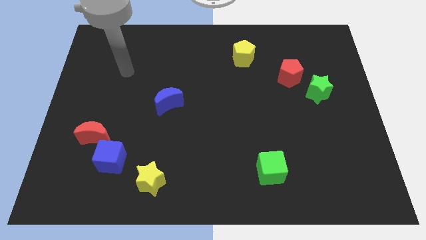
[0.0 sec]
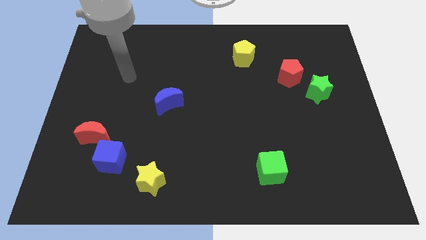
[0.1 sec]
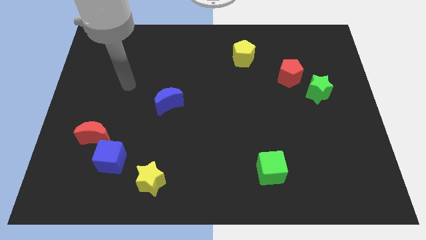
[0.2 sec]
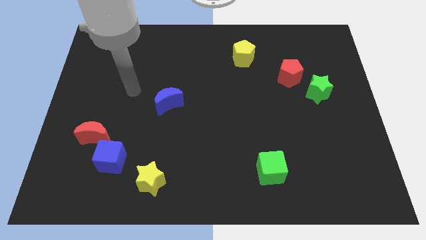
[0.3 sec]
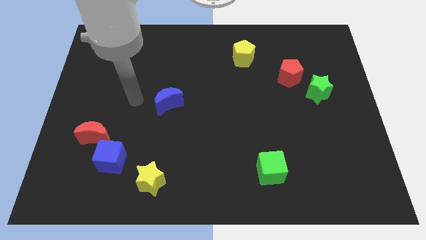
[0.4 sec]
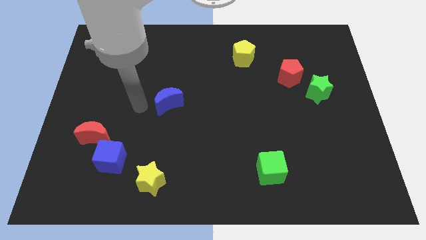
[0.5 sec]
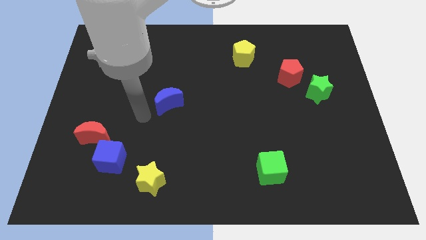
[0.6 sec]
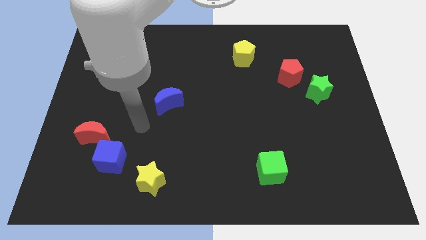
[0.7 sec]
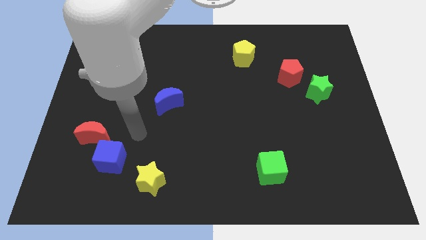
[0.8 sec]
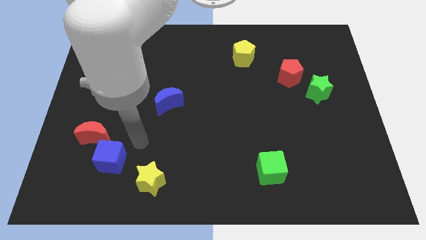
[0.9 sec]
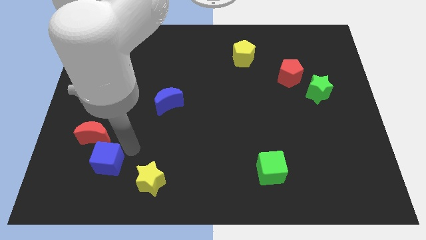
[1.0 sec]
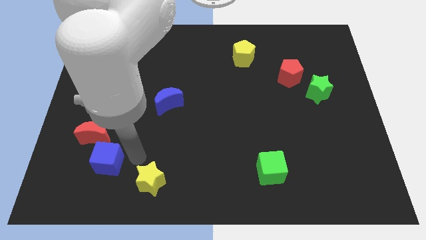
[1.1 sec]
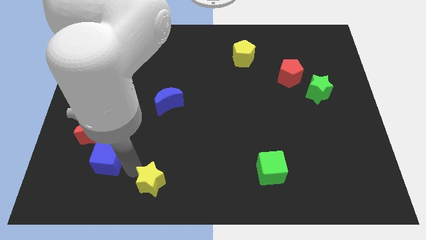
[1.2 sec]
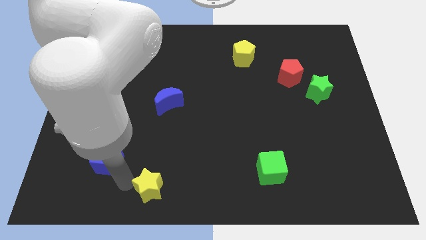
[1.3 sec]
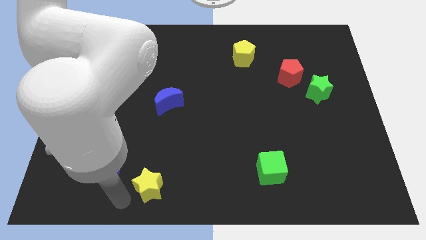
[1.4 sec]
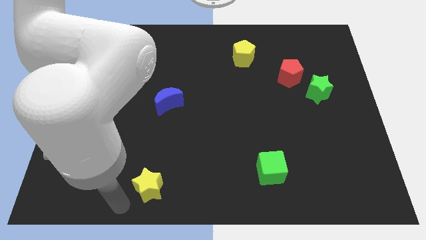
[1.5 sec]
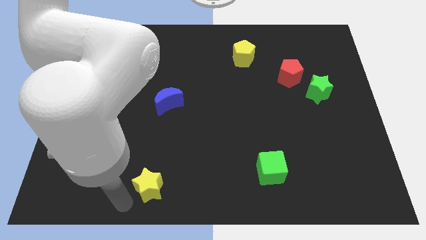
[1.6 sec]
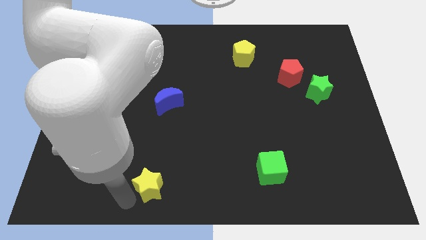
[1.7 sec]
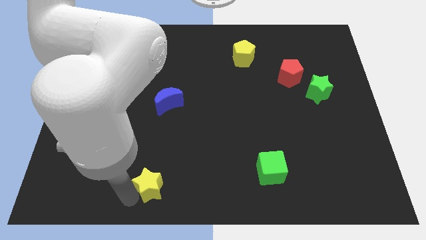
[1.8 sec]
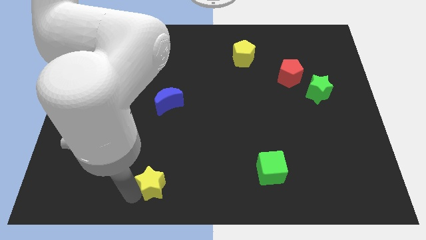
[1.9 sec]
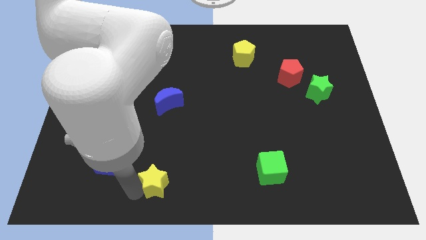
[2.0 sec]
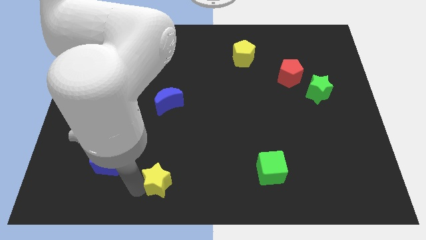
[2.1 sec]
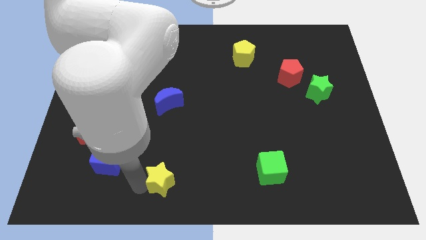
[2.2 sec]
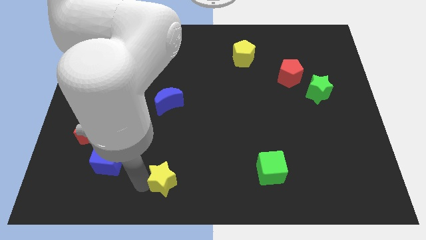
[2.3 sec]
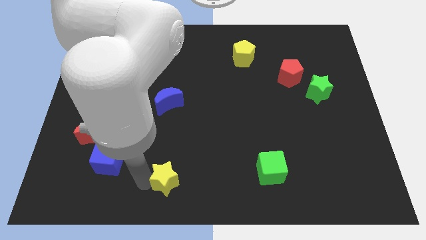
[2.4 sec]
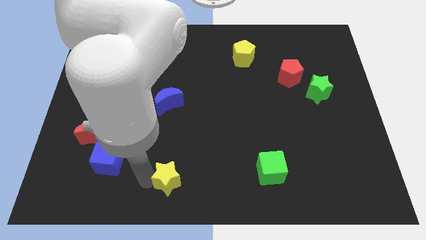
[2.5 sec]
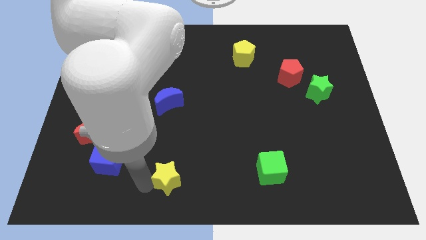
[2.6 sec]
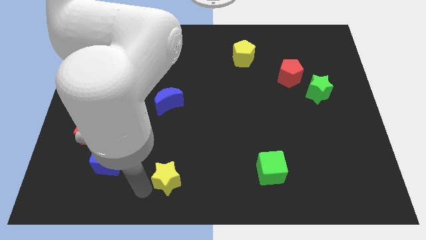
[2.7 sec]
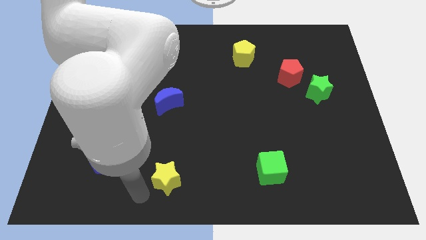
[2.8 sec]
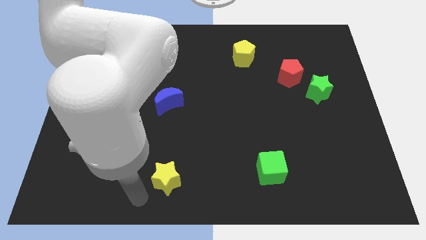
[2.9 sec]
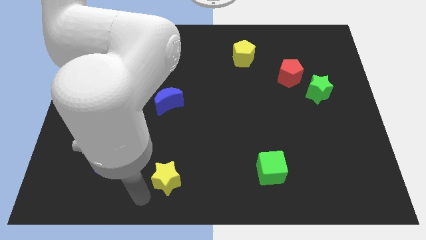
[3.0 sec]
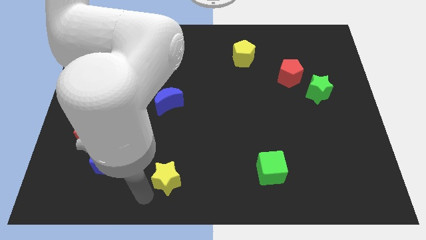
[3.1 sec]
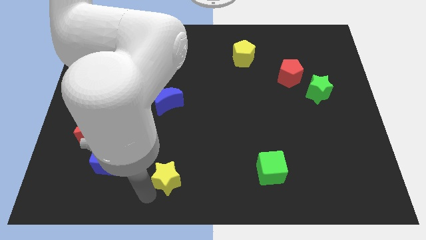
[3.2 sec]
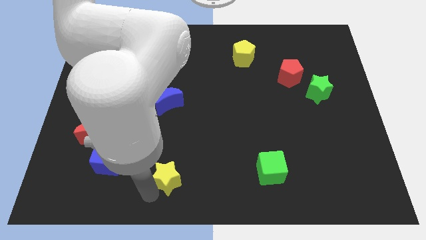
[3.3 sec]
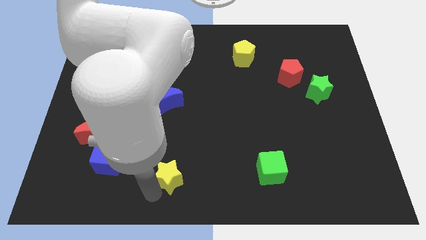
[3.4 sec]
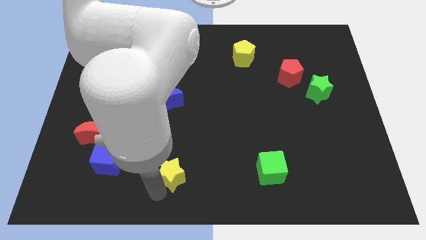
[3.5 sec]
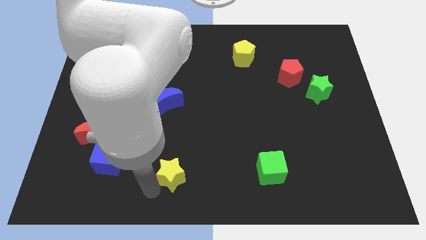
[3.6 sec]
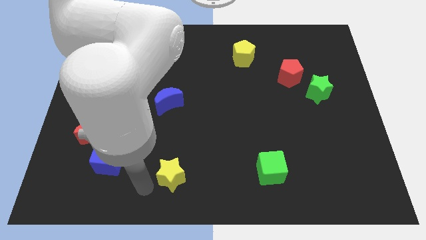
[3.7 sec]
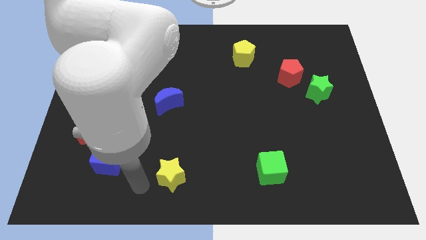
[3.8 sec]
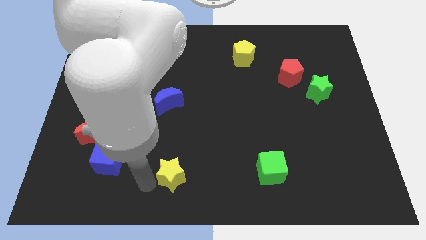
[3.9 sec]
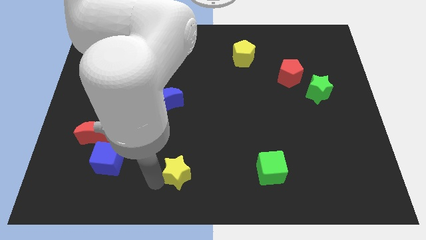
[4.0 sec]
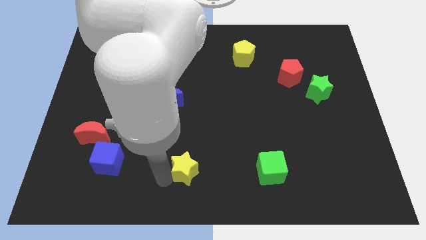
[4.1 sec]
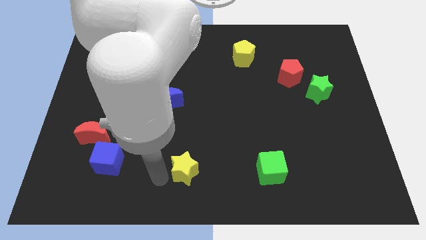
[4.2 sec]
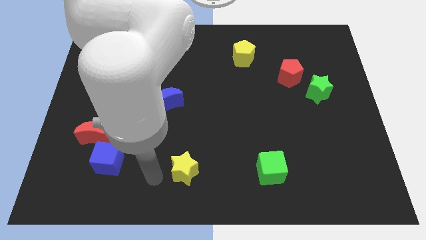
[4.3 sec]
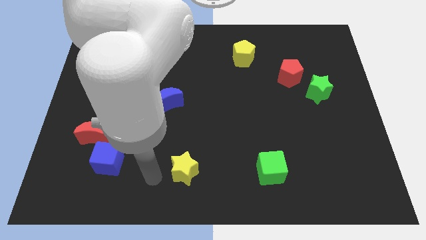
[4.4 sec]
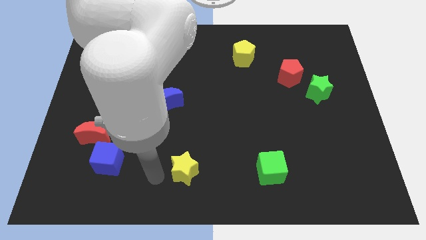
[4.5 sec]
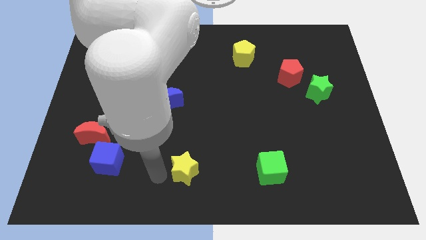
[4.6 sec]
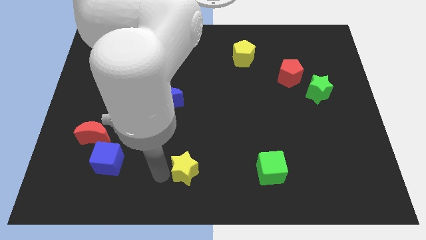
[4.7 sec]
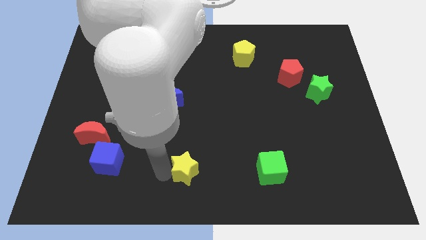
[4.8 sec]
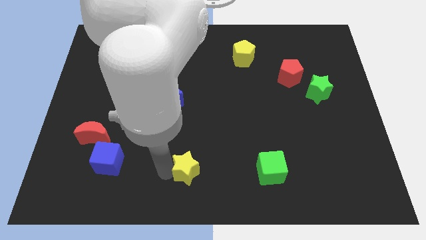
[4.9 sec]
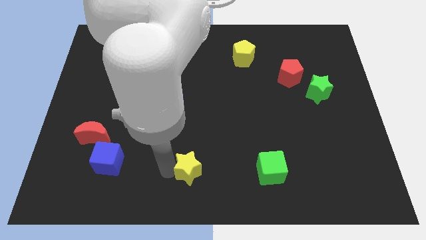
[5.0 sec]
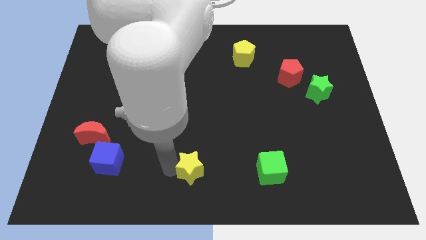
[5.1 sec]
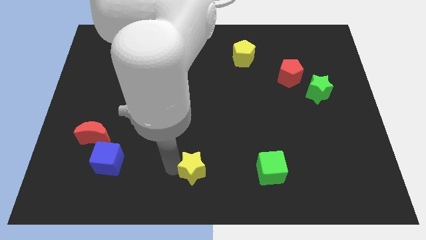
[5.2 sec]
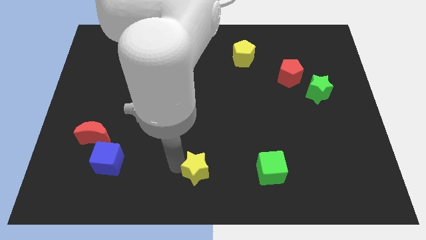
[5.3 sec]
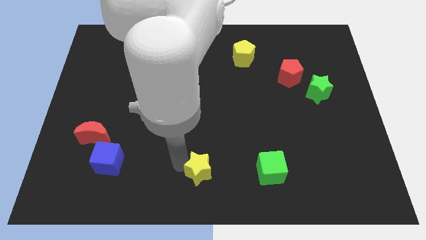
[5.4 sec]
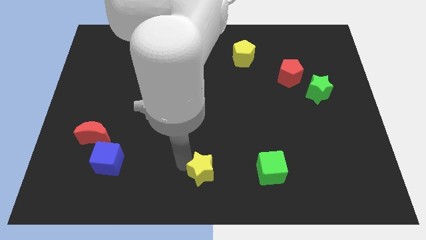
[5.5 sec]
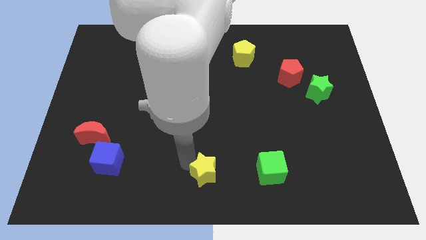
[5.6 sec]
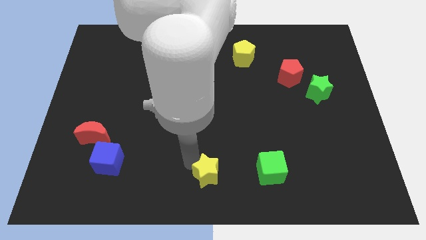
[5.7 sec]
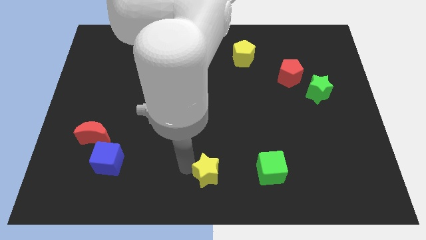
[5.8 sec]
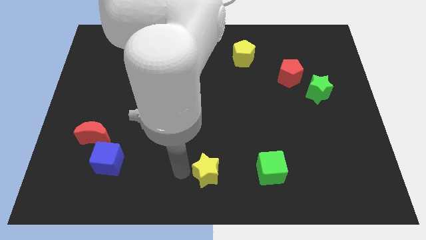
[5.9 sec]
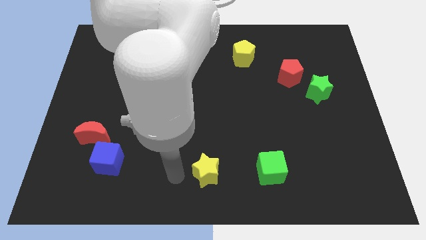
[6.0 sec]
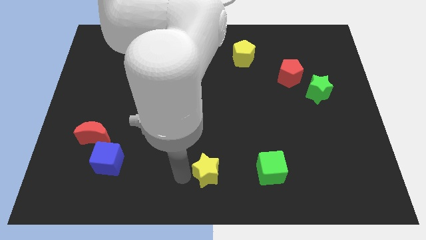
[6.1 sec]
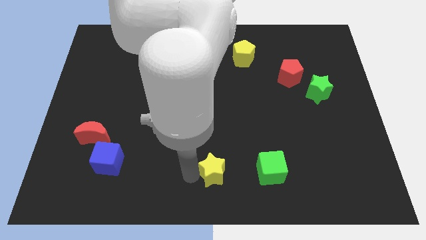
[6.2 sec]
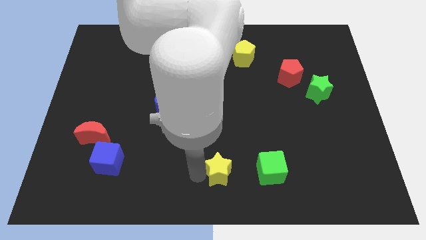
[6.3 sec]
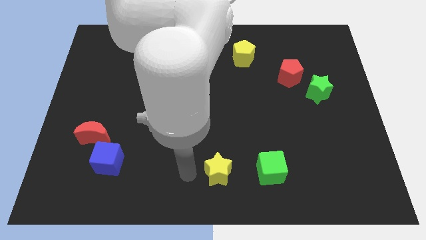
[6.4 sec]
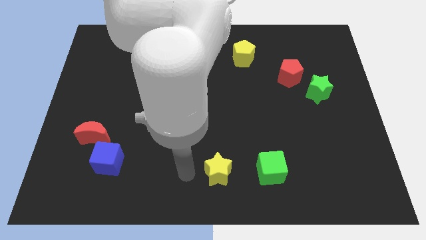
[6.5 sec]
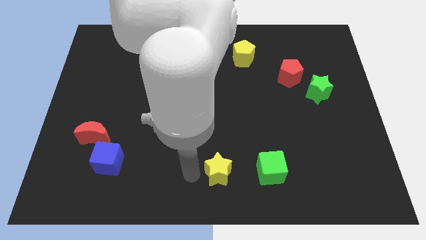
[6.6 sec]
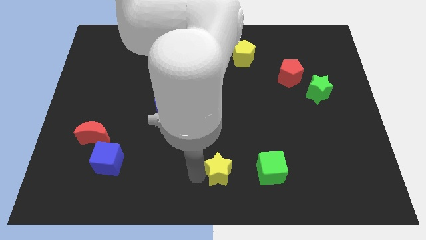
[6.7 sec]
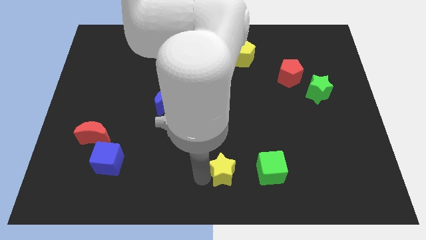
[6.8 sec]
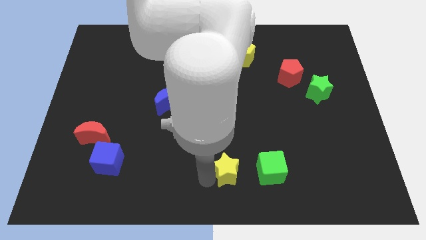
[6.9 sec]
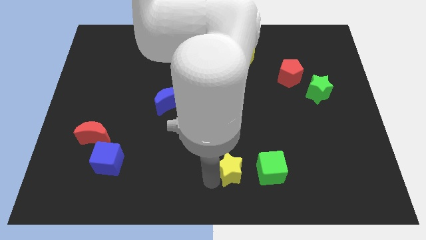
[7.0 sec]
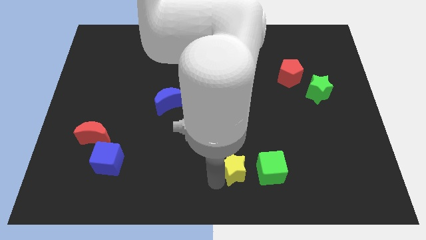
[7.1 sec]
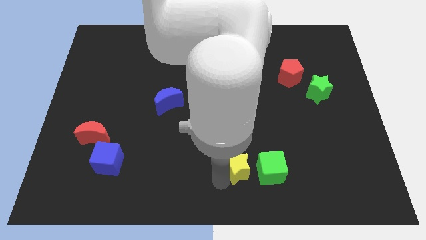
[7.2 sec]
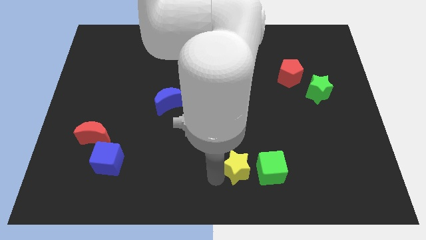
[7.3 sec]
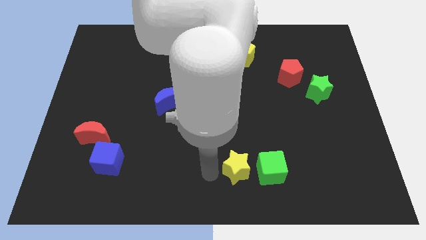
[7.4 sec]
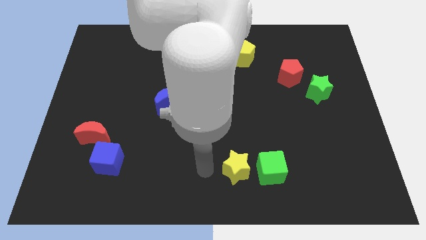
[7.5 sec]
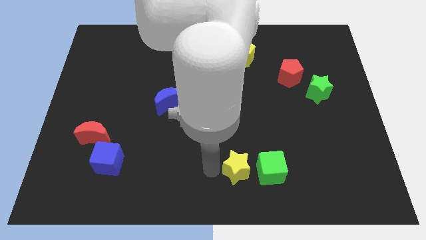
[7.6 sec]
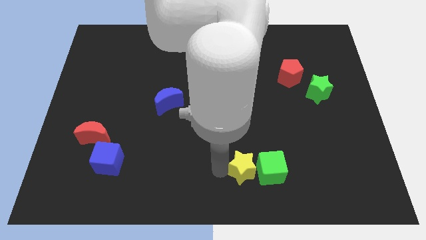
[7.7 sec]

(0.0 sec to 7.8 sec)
move the yellow star next to the green cube
